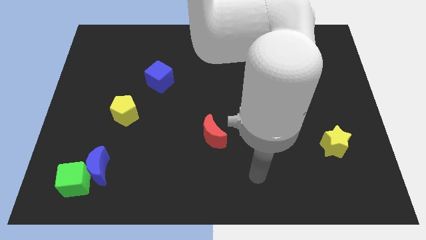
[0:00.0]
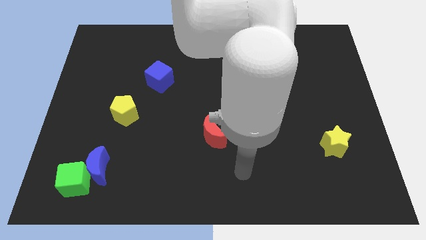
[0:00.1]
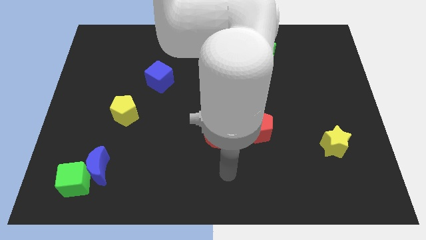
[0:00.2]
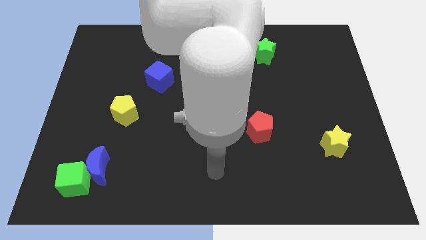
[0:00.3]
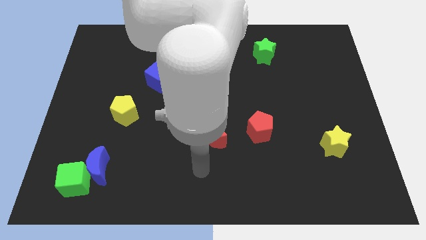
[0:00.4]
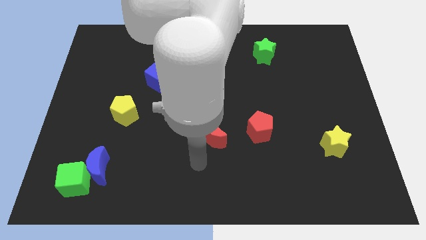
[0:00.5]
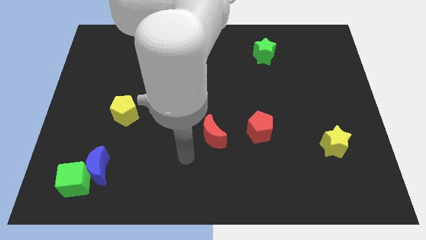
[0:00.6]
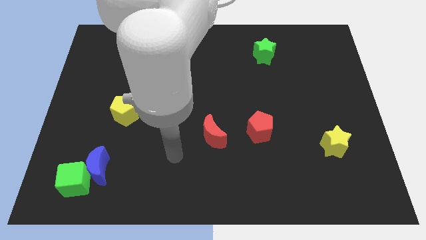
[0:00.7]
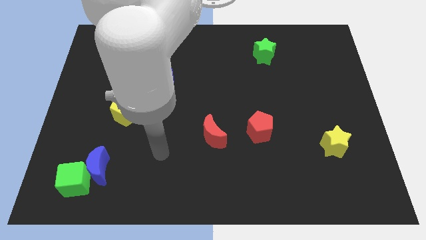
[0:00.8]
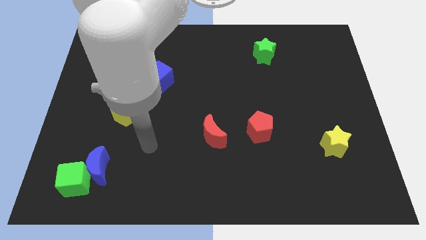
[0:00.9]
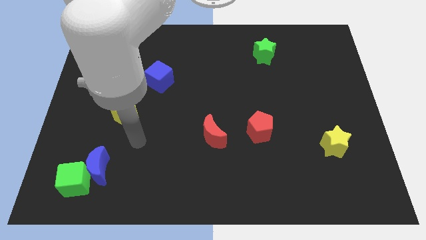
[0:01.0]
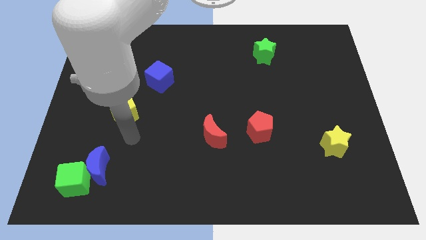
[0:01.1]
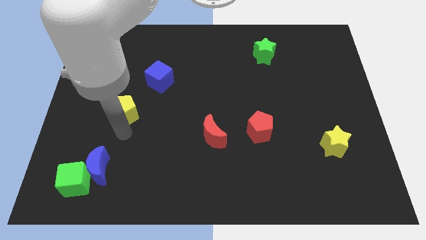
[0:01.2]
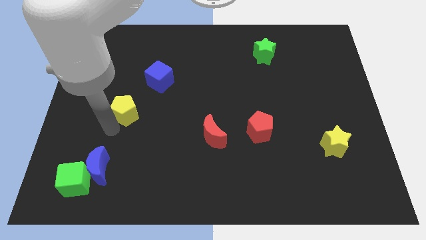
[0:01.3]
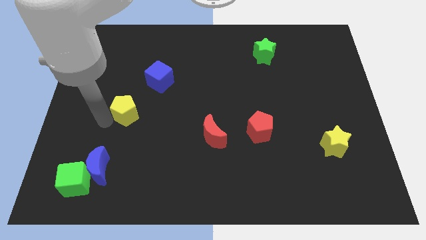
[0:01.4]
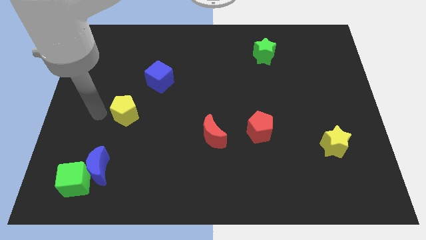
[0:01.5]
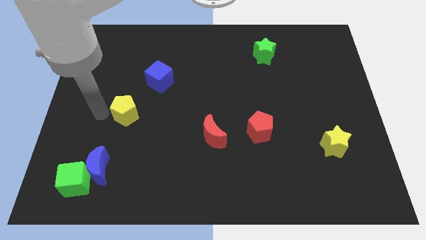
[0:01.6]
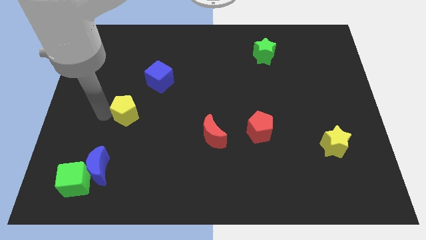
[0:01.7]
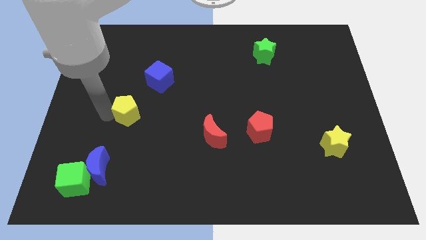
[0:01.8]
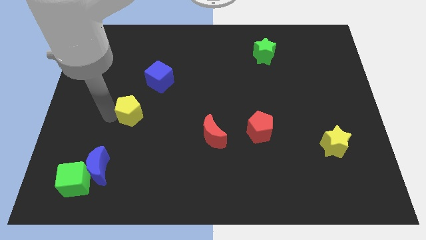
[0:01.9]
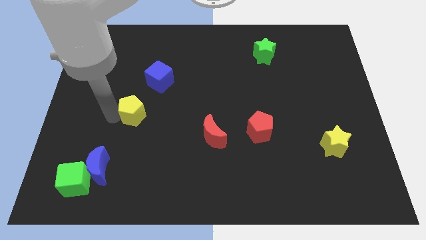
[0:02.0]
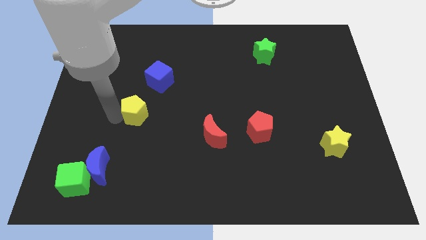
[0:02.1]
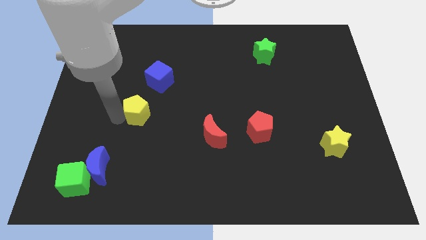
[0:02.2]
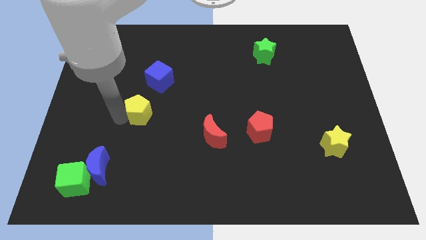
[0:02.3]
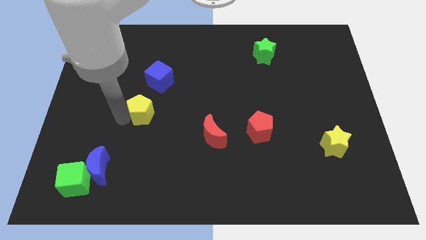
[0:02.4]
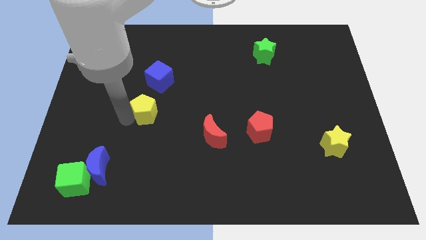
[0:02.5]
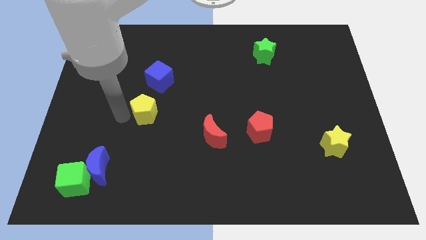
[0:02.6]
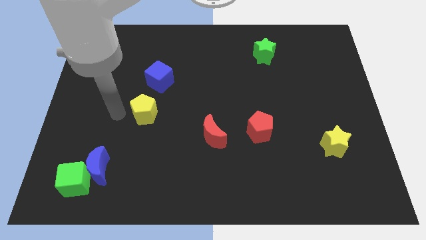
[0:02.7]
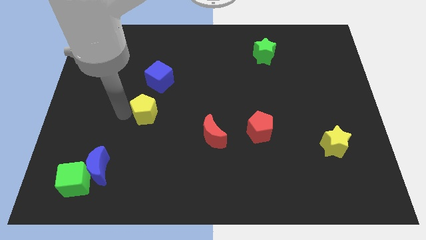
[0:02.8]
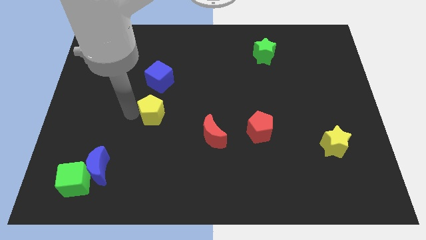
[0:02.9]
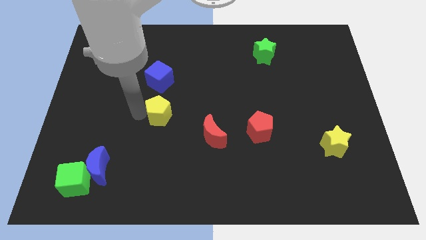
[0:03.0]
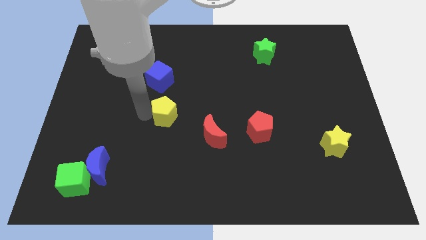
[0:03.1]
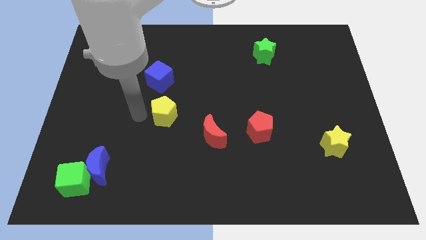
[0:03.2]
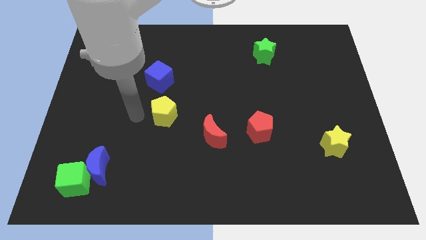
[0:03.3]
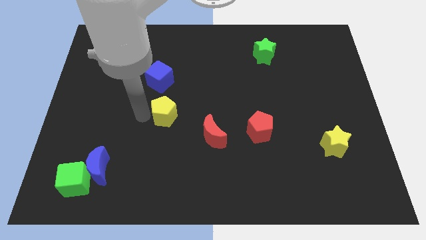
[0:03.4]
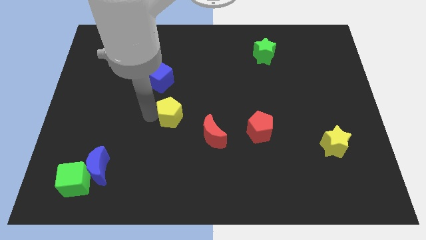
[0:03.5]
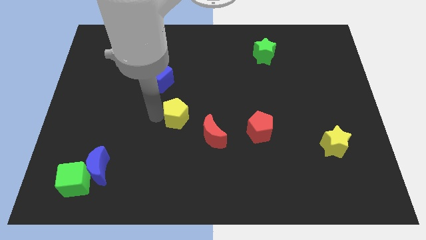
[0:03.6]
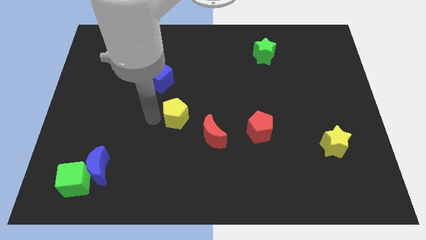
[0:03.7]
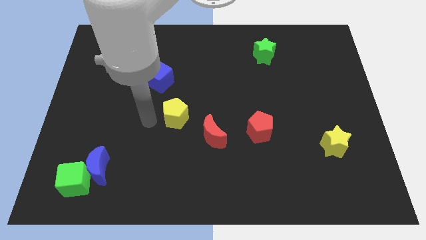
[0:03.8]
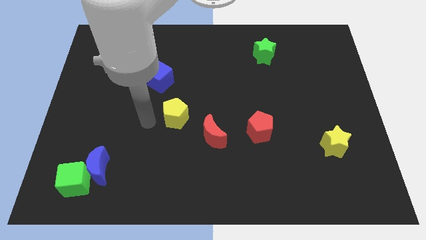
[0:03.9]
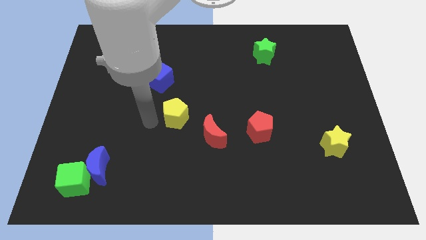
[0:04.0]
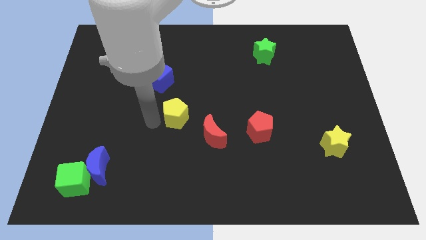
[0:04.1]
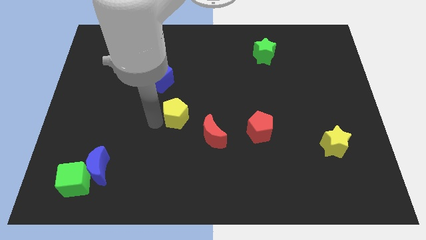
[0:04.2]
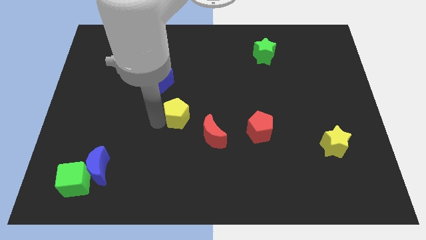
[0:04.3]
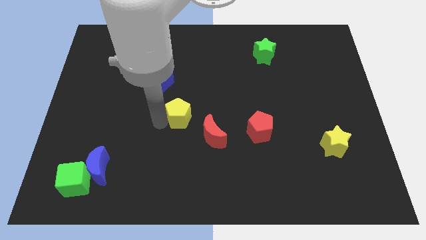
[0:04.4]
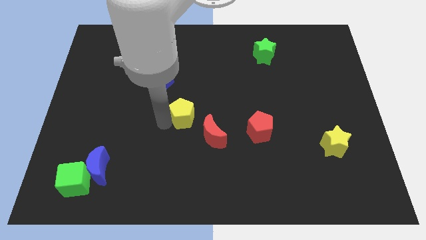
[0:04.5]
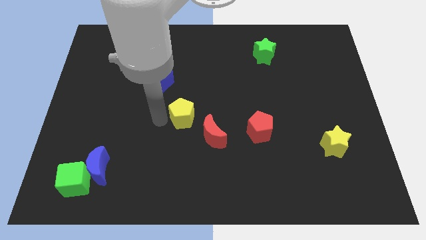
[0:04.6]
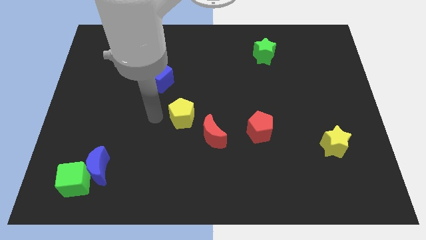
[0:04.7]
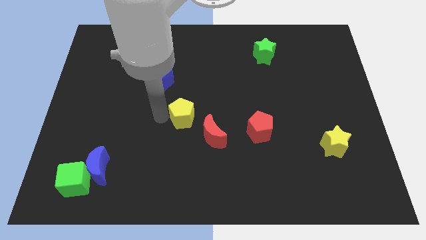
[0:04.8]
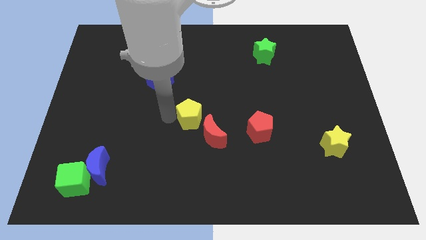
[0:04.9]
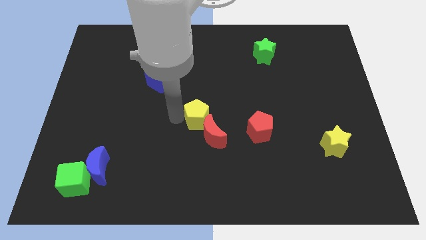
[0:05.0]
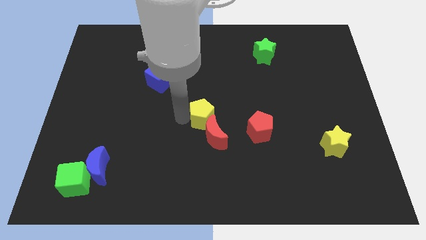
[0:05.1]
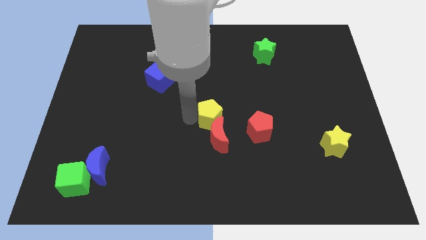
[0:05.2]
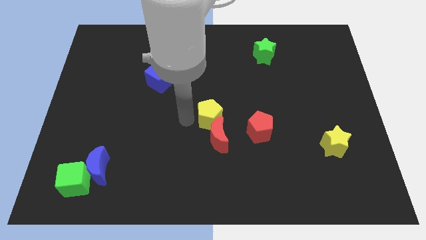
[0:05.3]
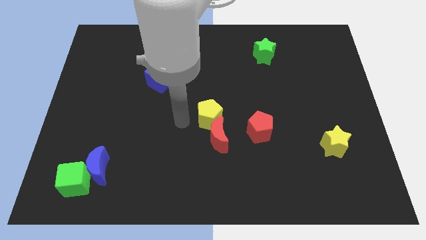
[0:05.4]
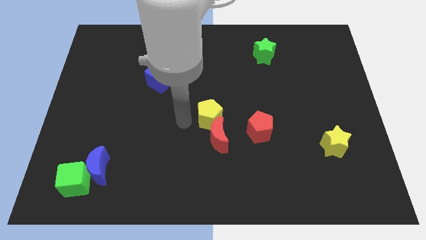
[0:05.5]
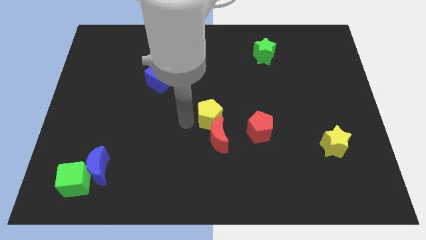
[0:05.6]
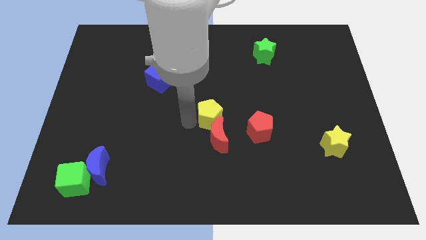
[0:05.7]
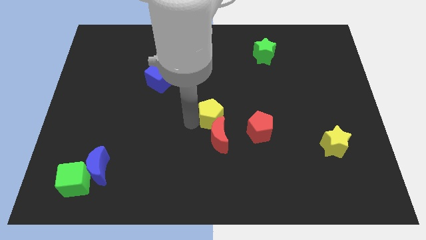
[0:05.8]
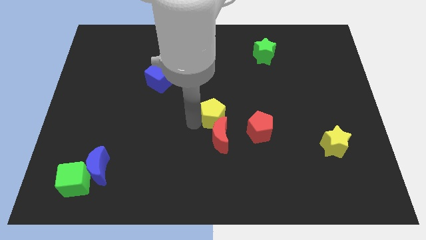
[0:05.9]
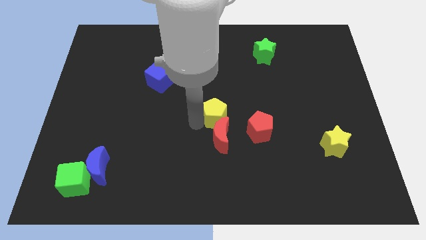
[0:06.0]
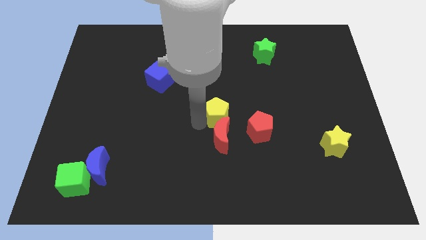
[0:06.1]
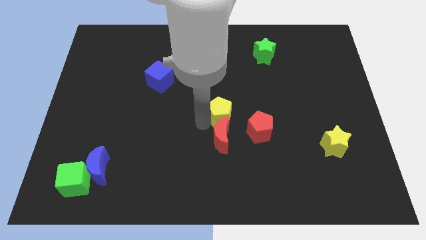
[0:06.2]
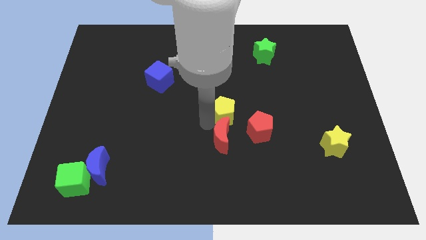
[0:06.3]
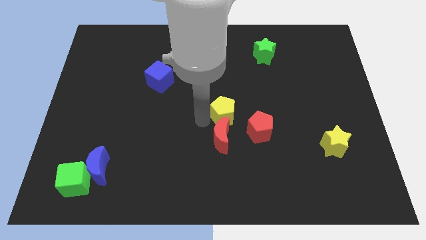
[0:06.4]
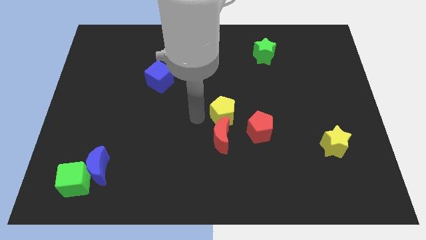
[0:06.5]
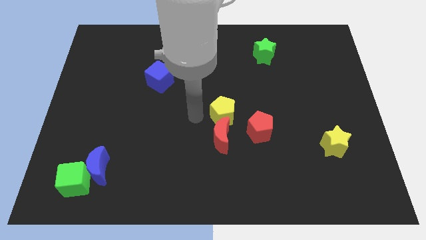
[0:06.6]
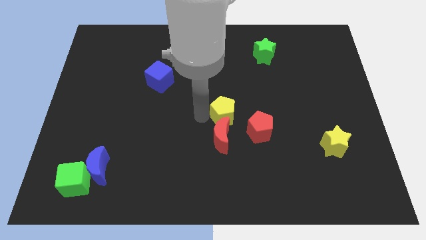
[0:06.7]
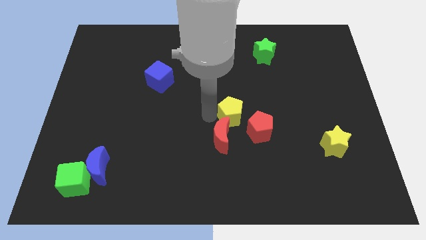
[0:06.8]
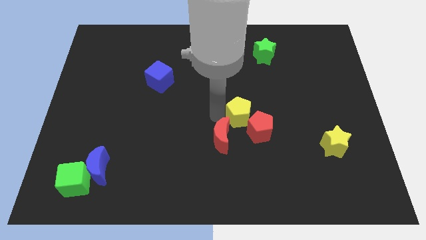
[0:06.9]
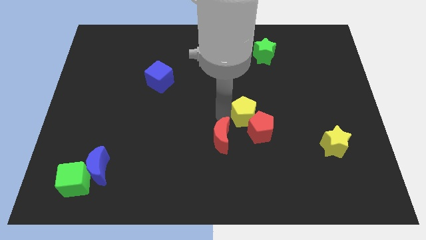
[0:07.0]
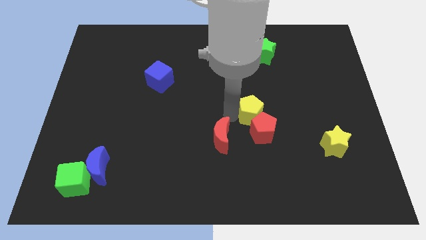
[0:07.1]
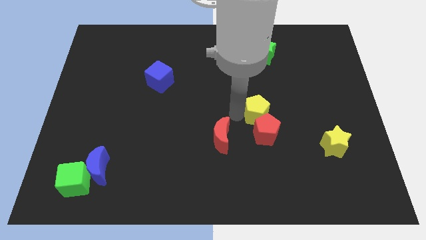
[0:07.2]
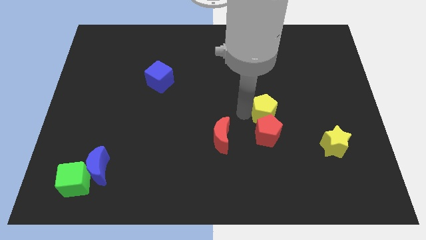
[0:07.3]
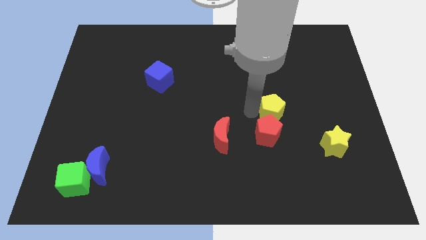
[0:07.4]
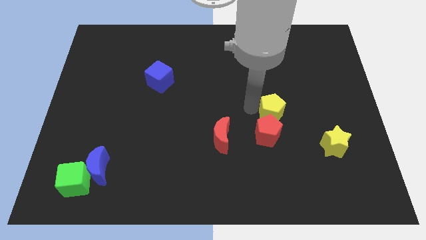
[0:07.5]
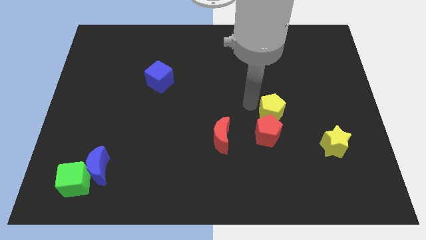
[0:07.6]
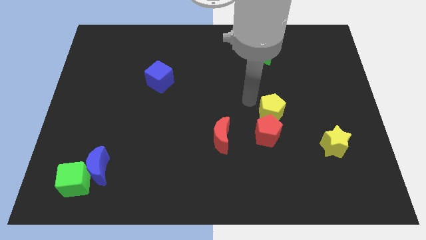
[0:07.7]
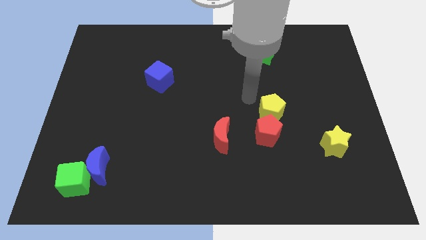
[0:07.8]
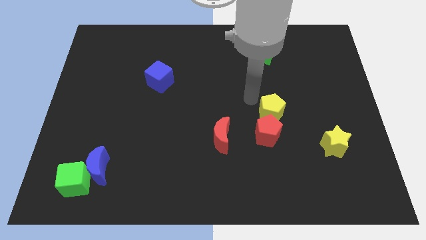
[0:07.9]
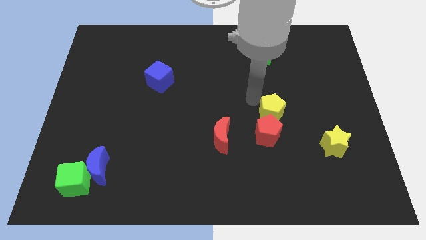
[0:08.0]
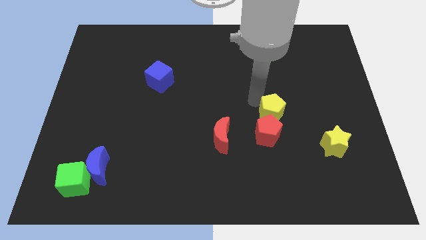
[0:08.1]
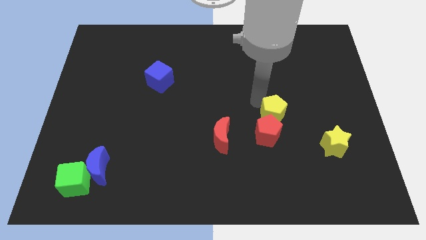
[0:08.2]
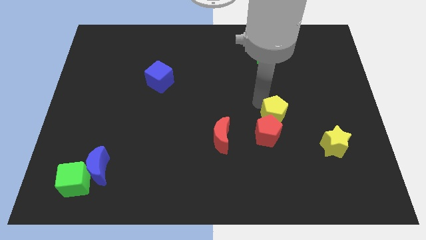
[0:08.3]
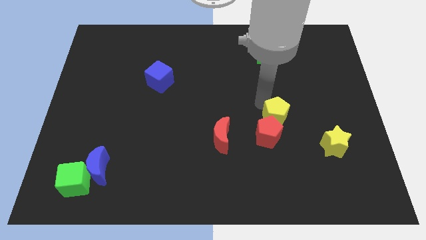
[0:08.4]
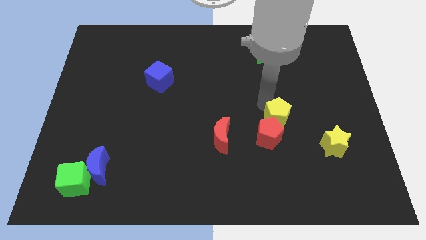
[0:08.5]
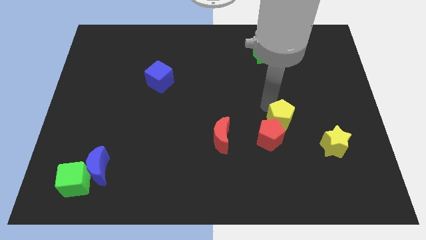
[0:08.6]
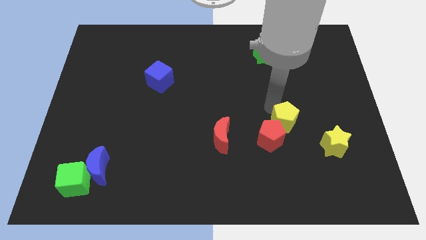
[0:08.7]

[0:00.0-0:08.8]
put the yellow pentagon to the right side of the red pentagon
